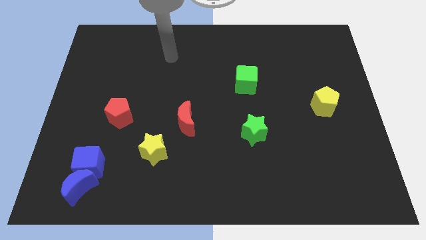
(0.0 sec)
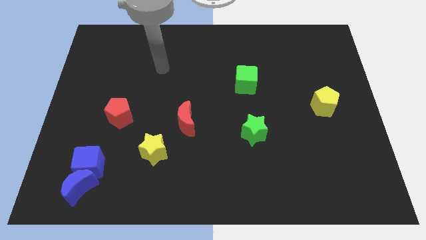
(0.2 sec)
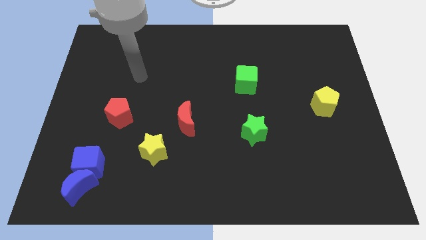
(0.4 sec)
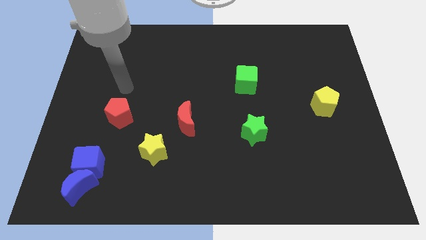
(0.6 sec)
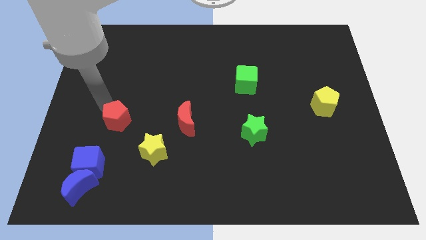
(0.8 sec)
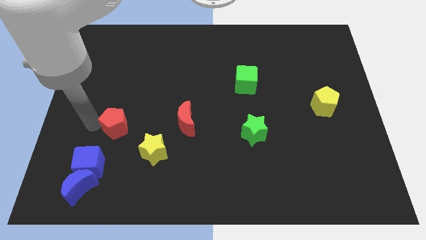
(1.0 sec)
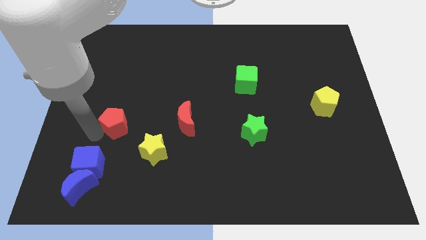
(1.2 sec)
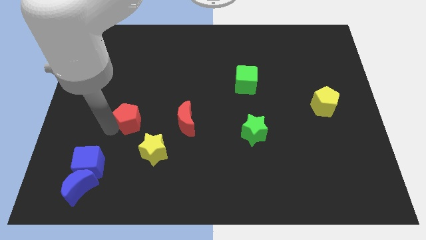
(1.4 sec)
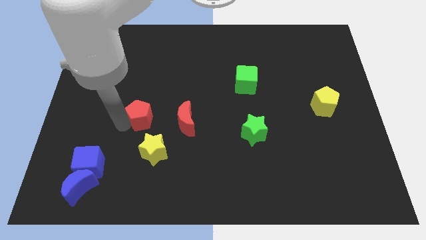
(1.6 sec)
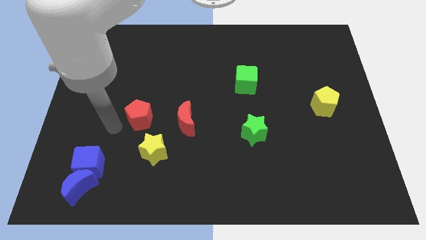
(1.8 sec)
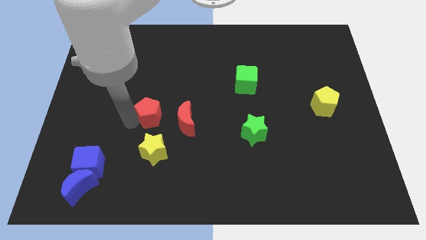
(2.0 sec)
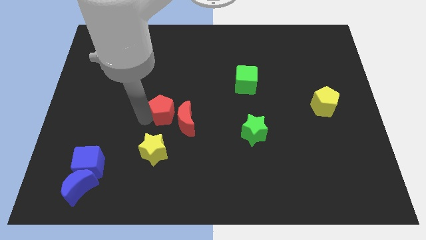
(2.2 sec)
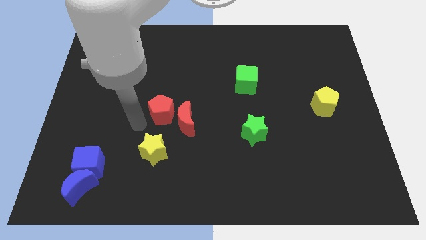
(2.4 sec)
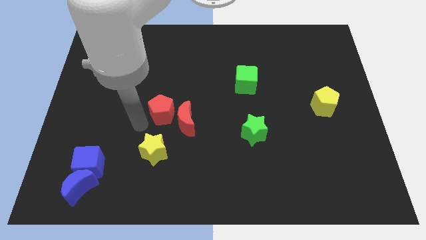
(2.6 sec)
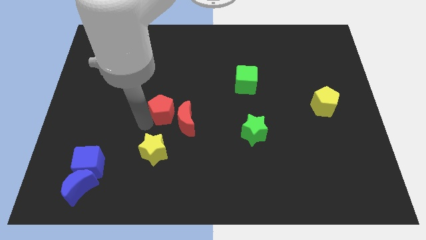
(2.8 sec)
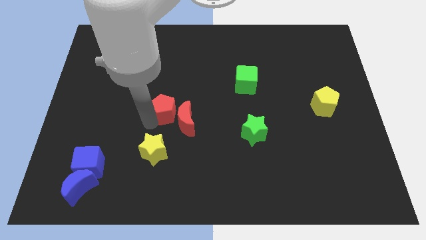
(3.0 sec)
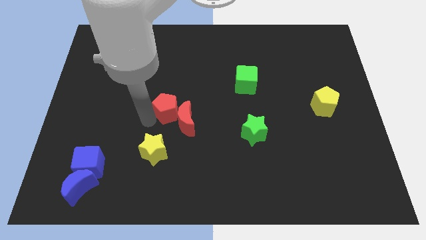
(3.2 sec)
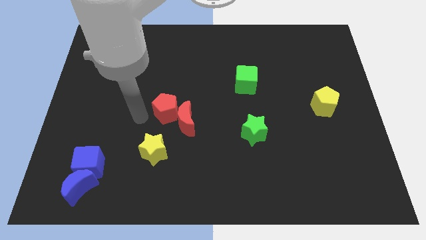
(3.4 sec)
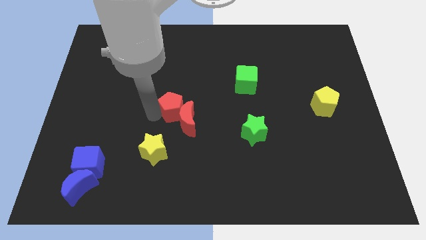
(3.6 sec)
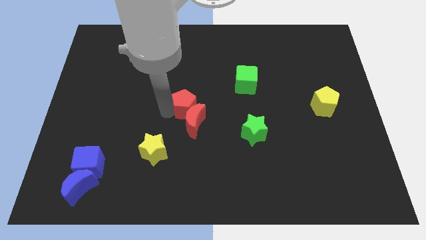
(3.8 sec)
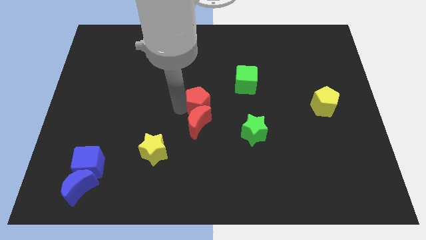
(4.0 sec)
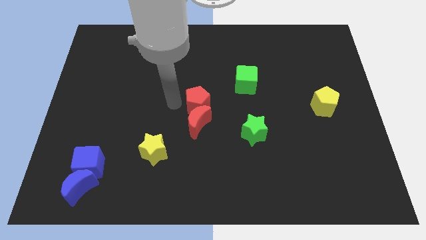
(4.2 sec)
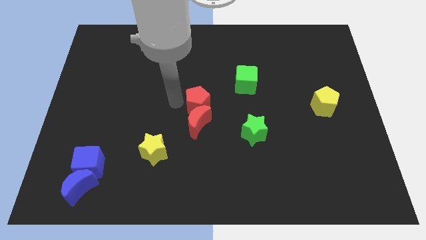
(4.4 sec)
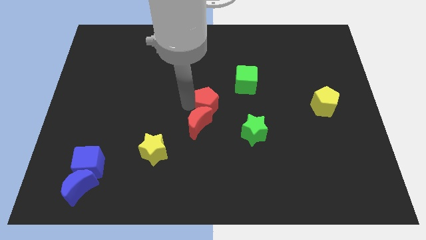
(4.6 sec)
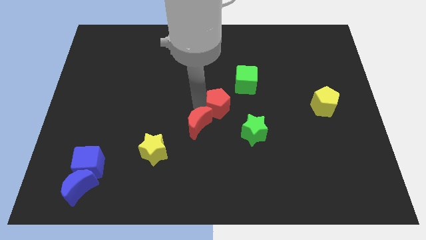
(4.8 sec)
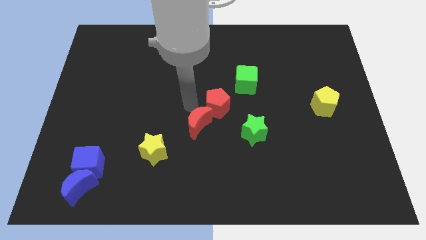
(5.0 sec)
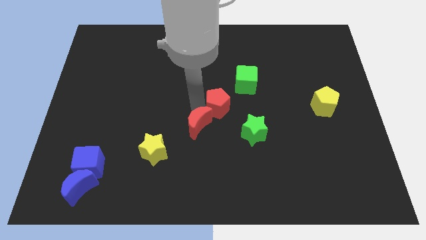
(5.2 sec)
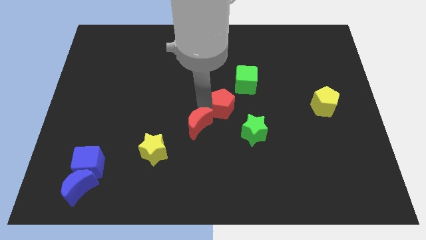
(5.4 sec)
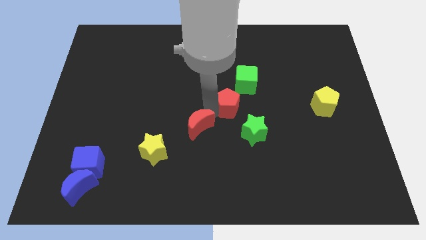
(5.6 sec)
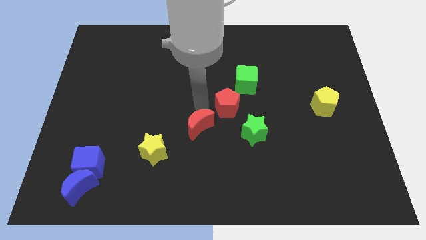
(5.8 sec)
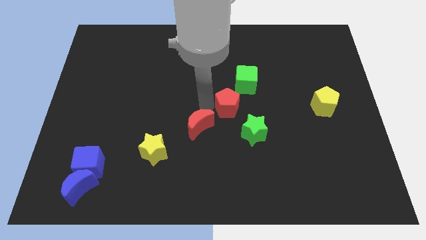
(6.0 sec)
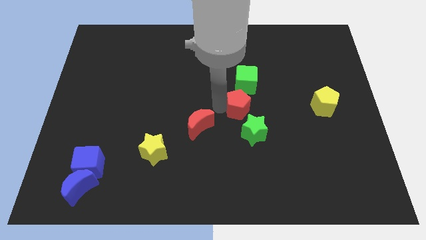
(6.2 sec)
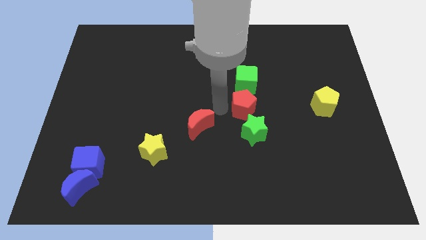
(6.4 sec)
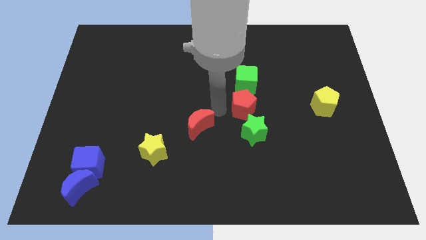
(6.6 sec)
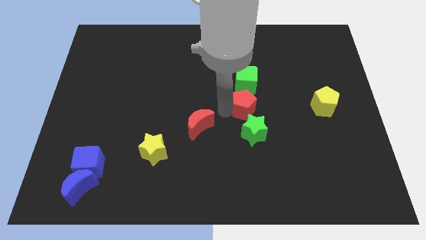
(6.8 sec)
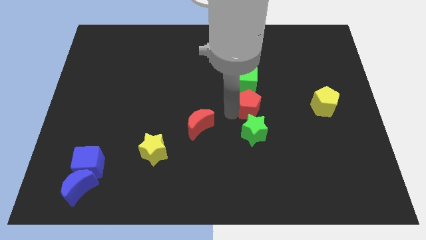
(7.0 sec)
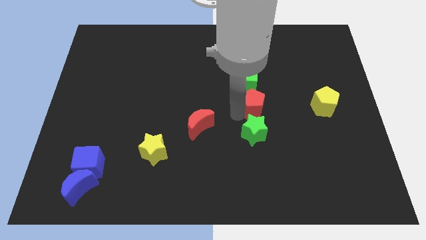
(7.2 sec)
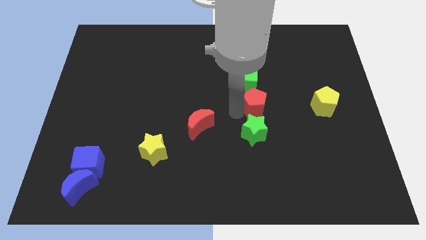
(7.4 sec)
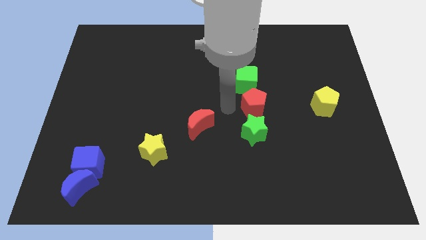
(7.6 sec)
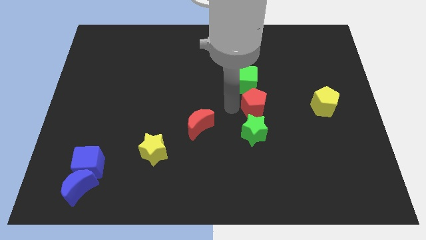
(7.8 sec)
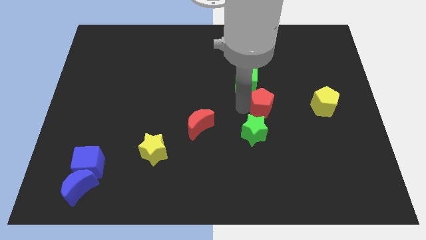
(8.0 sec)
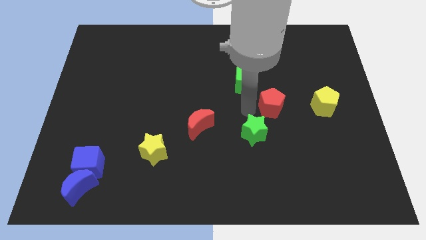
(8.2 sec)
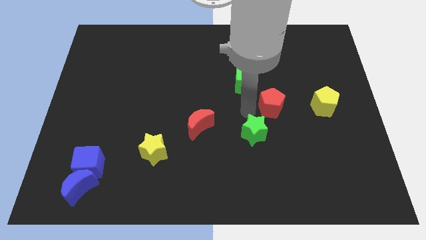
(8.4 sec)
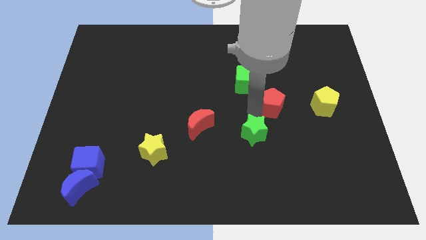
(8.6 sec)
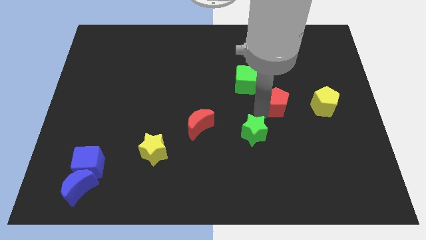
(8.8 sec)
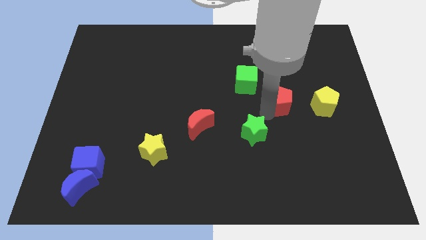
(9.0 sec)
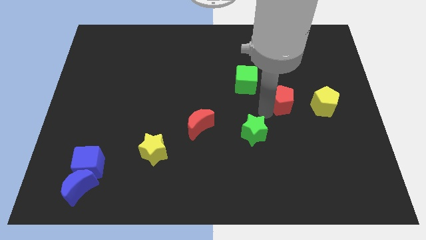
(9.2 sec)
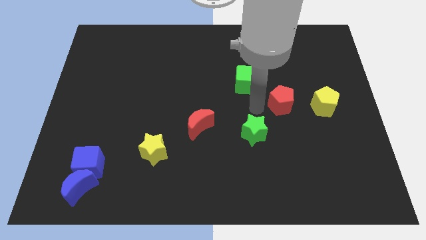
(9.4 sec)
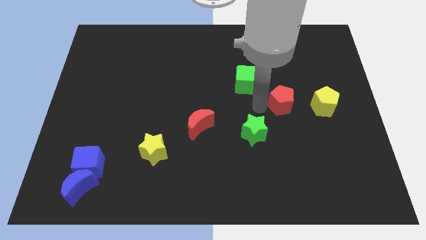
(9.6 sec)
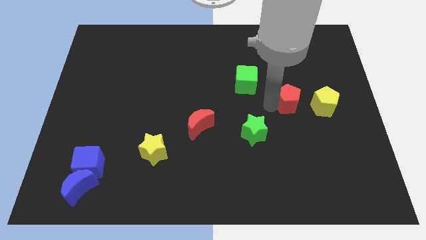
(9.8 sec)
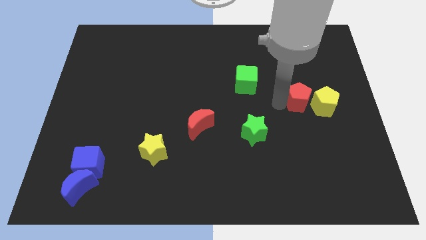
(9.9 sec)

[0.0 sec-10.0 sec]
push the red pentagon close to the yellow pentagon

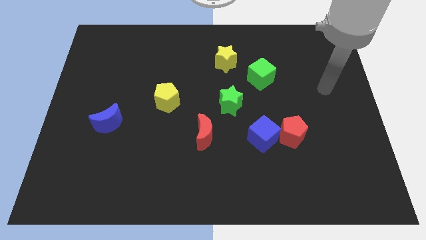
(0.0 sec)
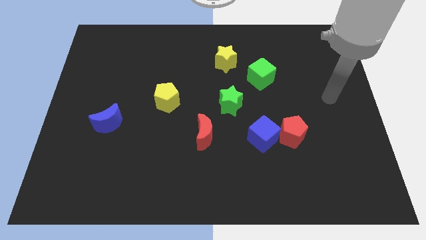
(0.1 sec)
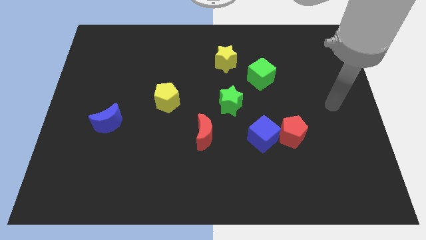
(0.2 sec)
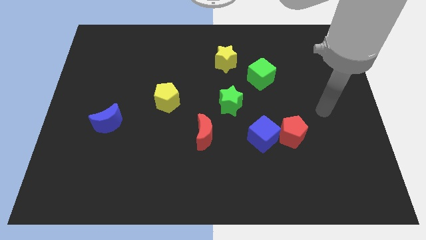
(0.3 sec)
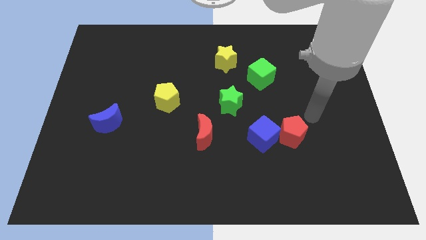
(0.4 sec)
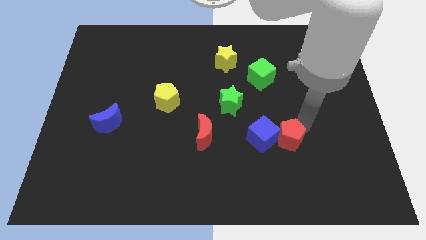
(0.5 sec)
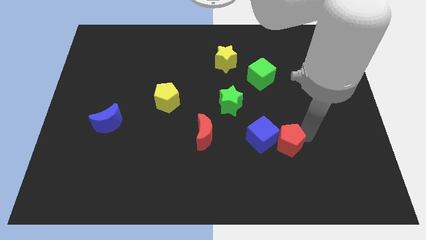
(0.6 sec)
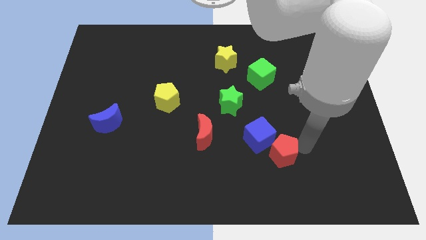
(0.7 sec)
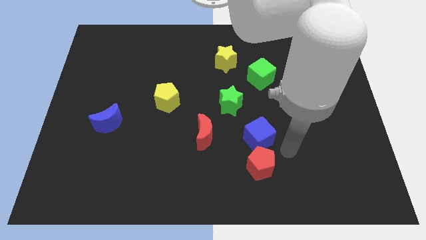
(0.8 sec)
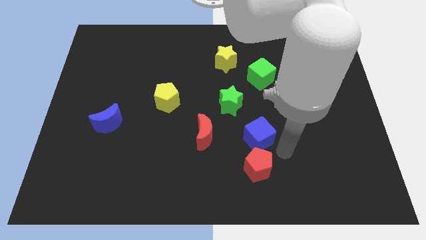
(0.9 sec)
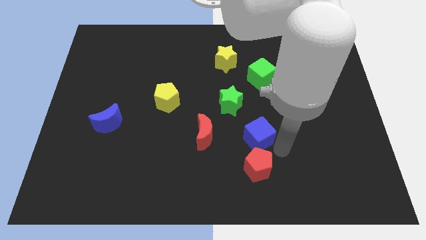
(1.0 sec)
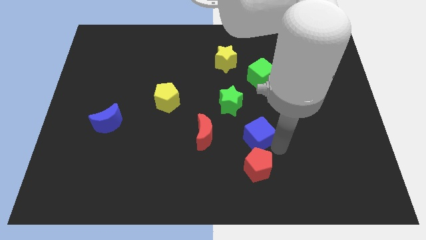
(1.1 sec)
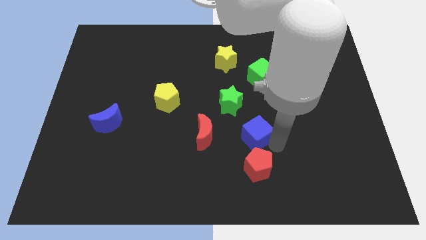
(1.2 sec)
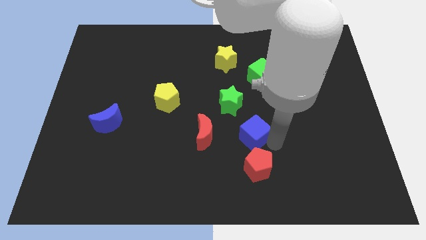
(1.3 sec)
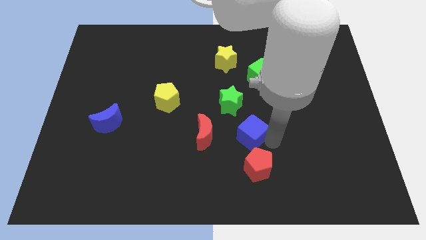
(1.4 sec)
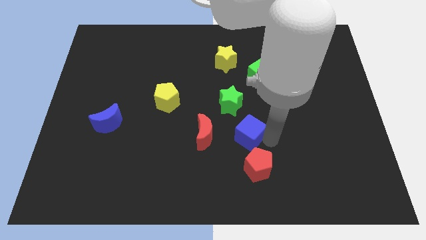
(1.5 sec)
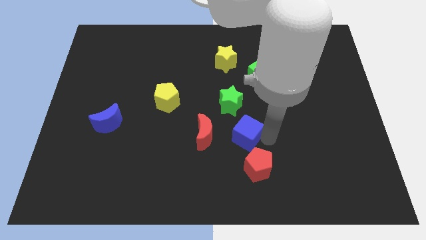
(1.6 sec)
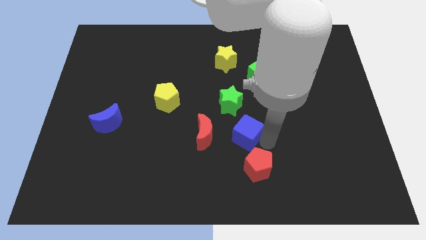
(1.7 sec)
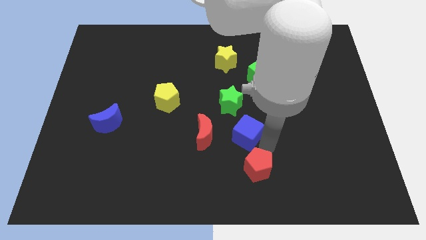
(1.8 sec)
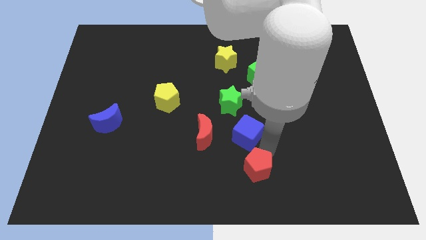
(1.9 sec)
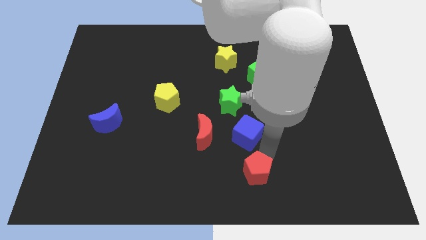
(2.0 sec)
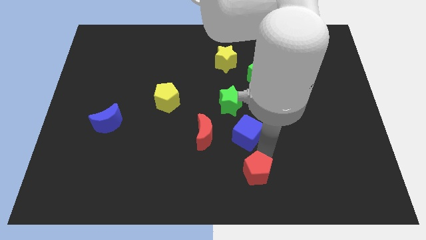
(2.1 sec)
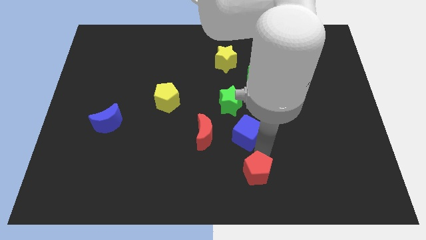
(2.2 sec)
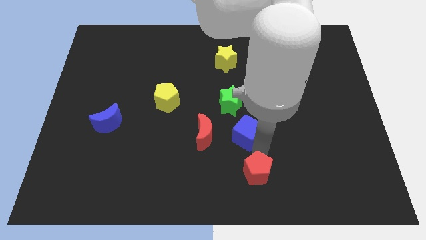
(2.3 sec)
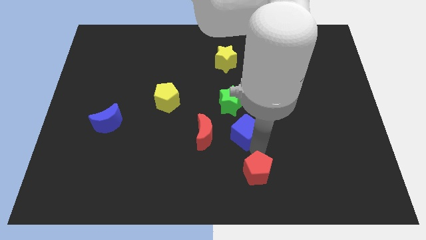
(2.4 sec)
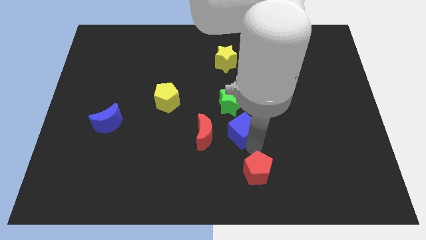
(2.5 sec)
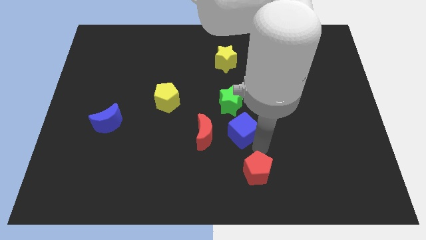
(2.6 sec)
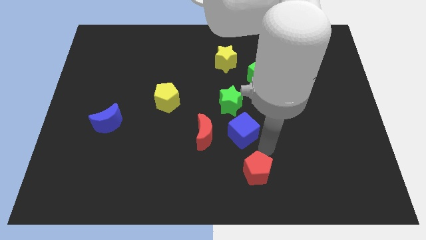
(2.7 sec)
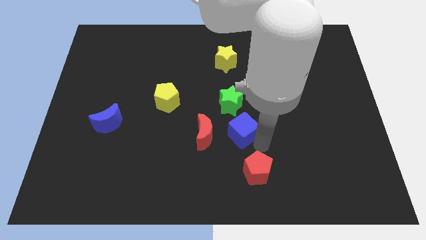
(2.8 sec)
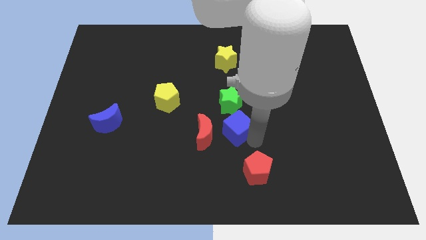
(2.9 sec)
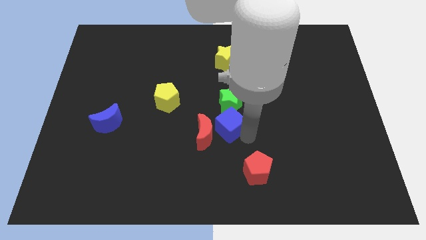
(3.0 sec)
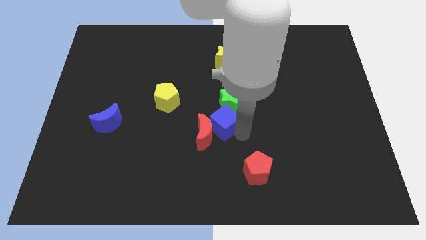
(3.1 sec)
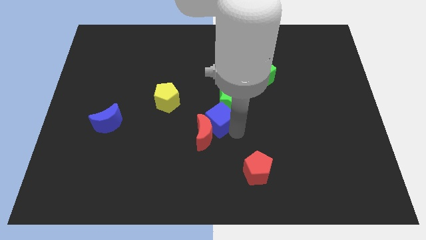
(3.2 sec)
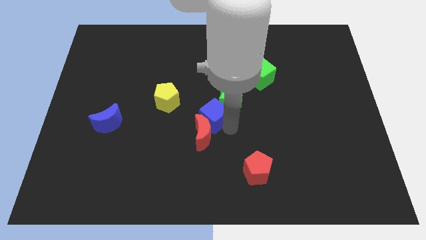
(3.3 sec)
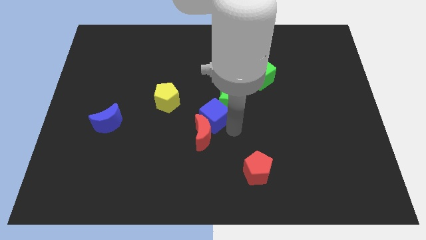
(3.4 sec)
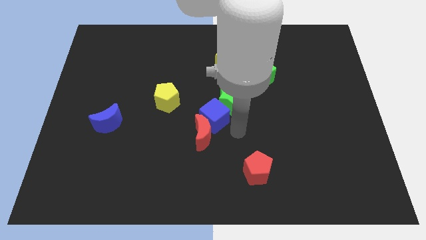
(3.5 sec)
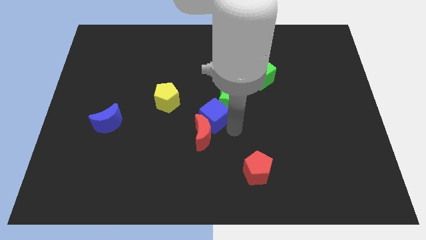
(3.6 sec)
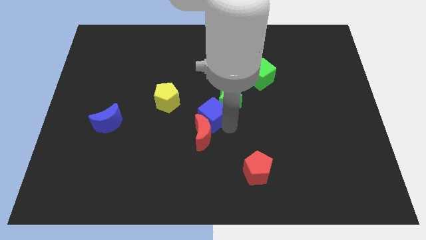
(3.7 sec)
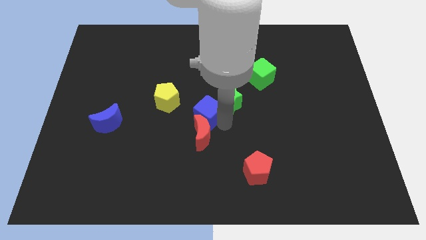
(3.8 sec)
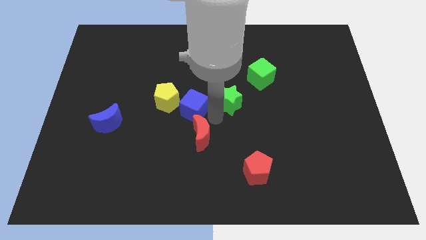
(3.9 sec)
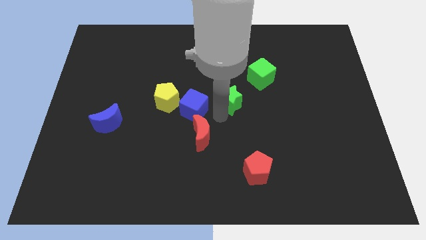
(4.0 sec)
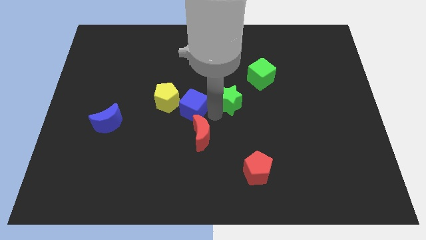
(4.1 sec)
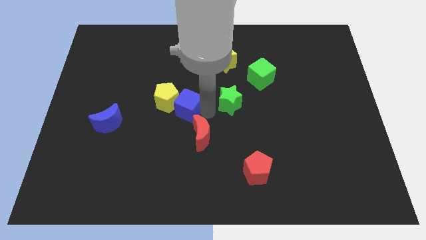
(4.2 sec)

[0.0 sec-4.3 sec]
put the blue cube next to the yellow pentagon
